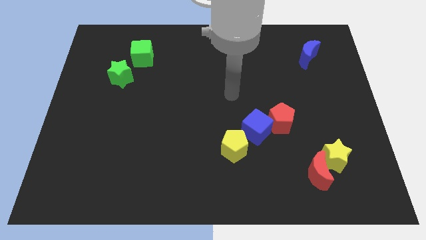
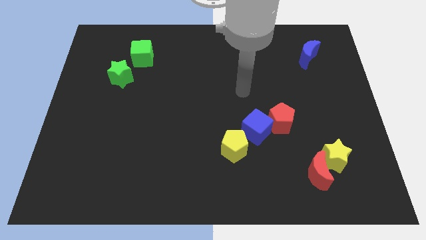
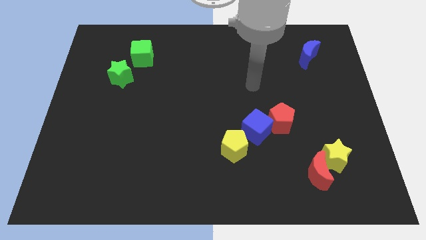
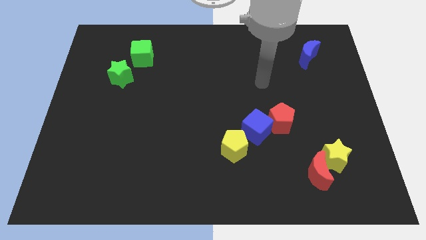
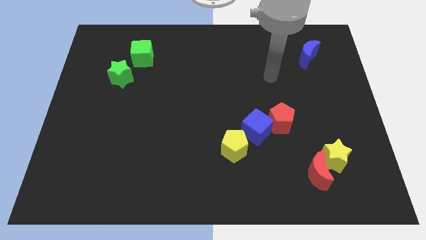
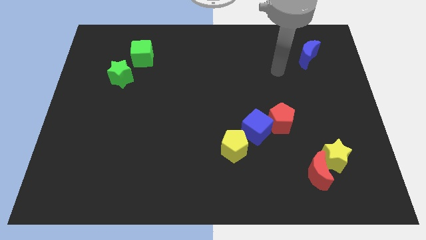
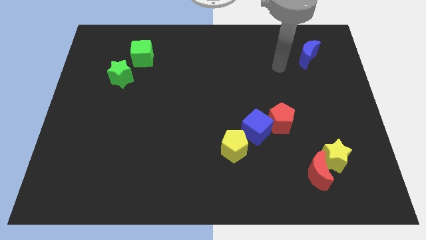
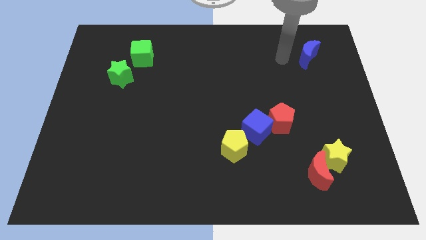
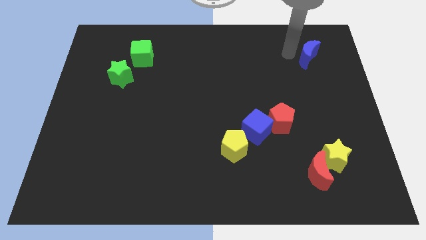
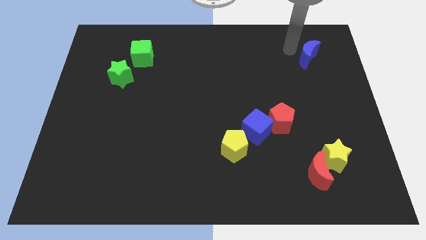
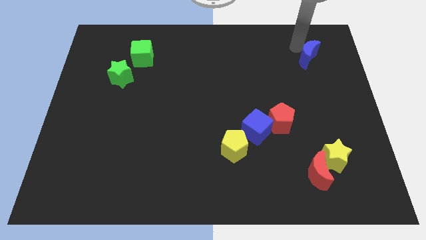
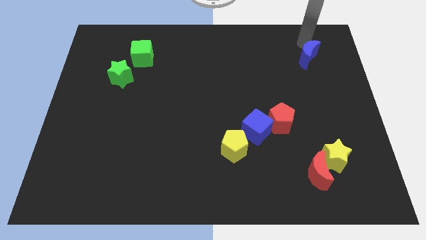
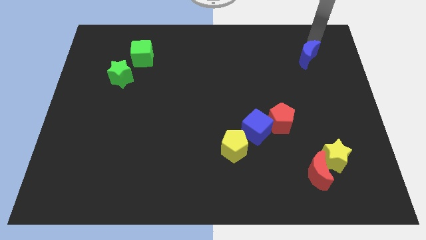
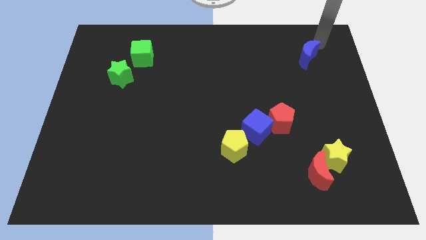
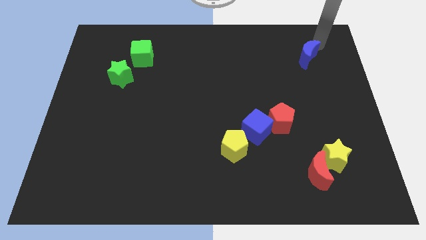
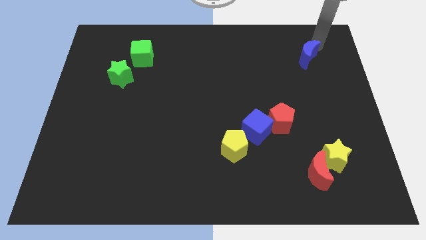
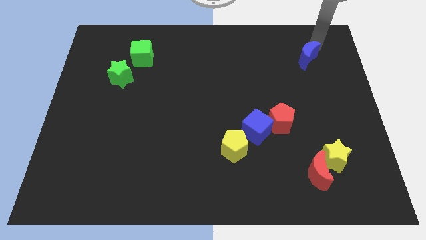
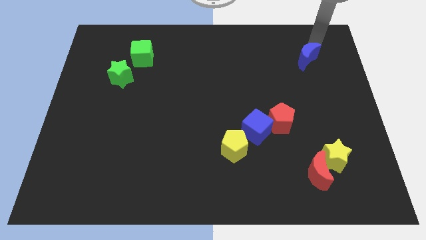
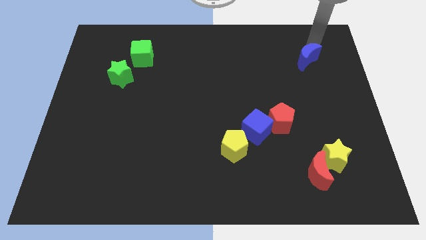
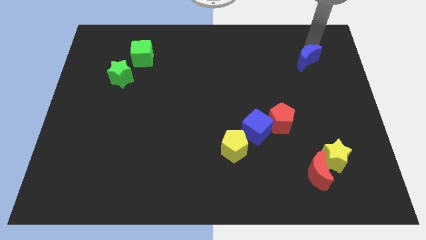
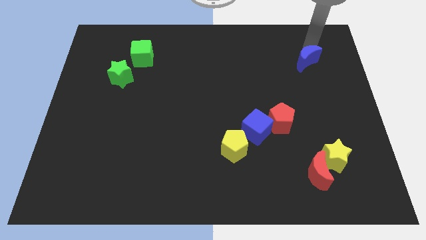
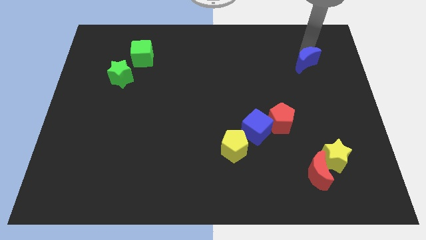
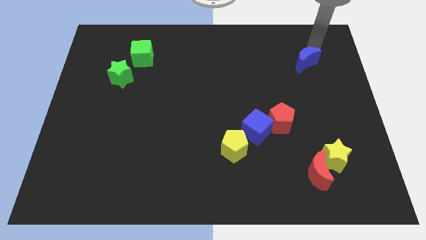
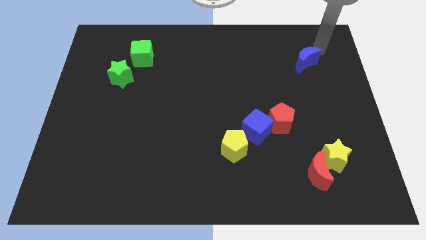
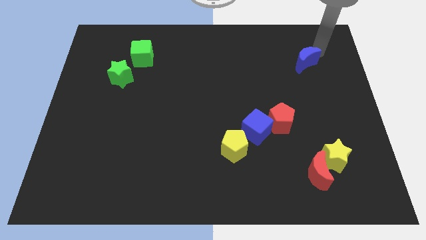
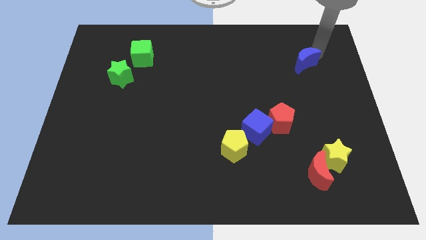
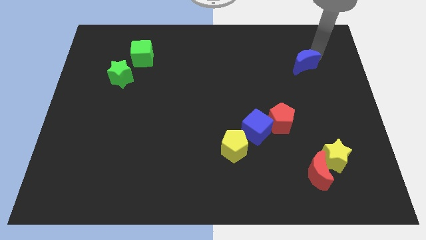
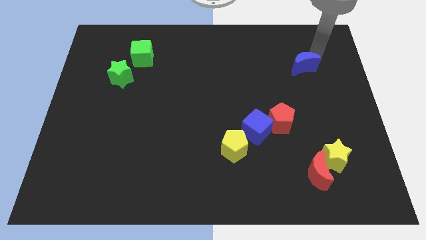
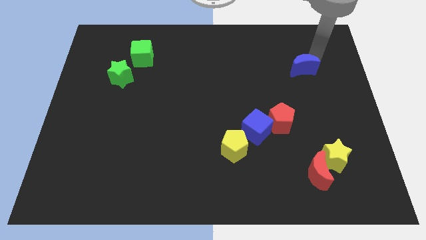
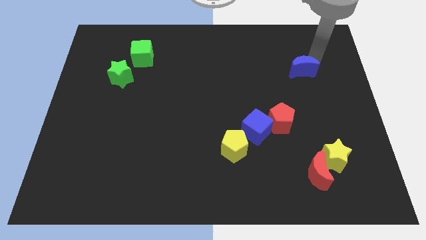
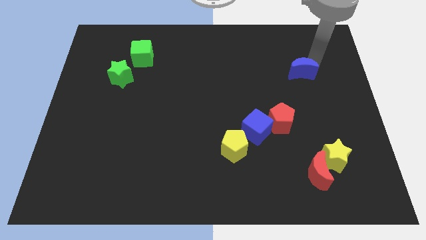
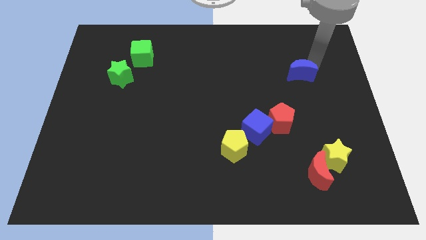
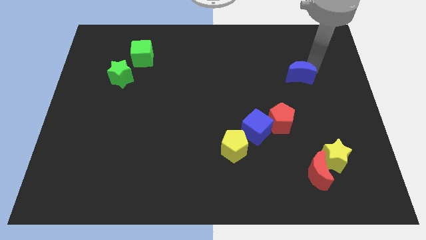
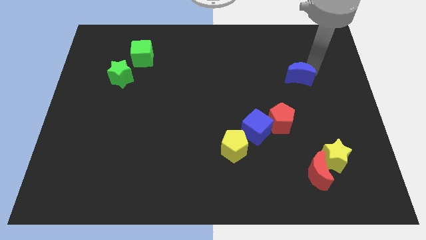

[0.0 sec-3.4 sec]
push the blue moon down and left somewhat

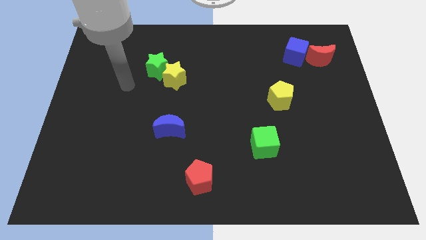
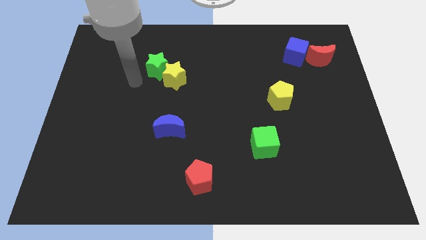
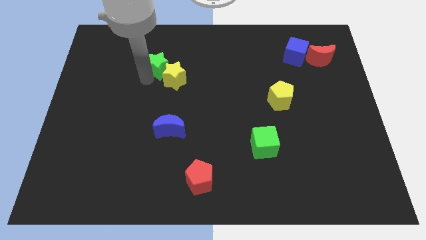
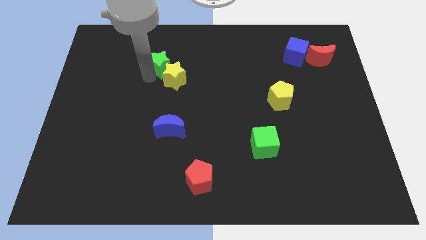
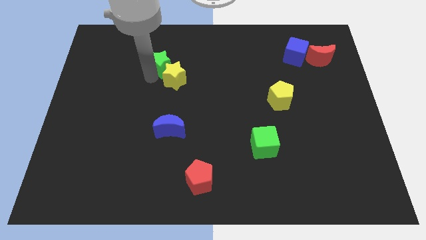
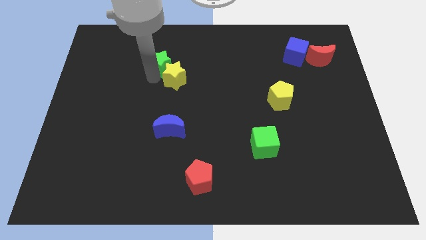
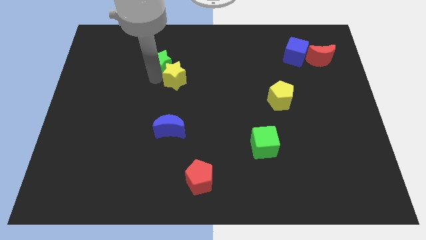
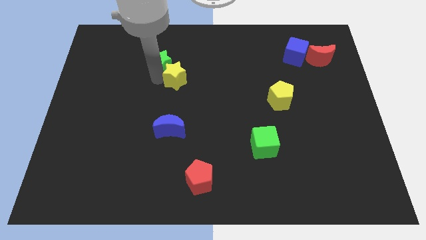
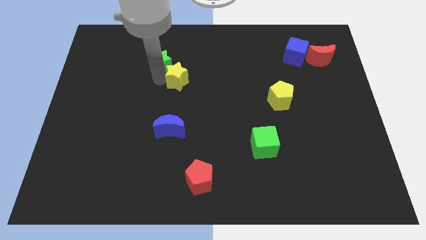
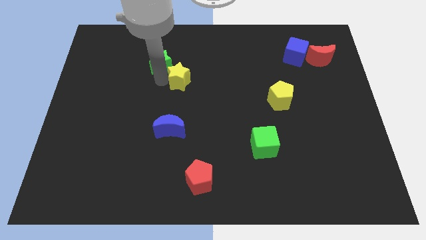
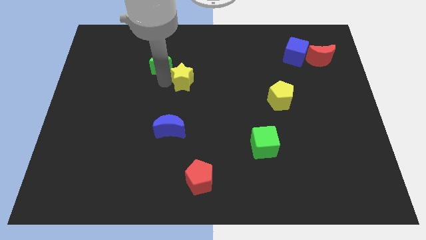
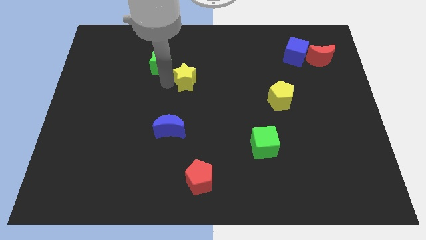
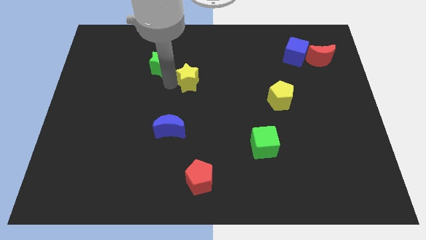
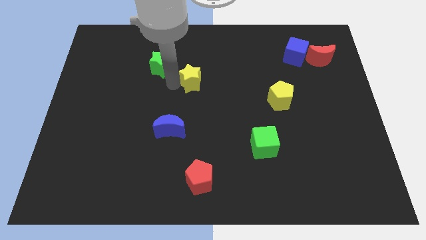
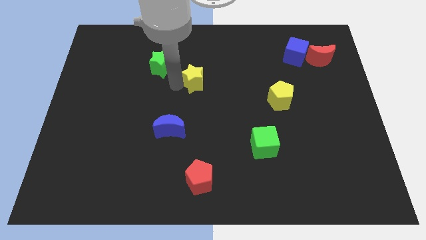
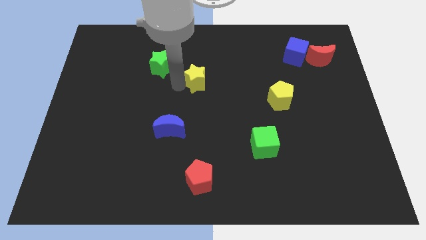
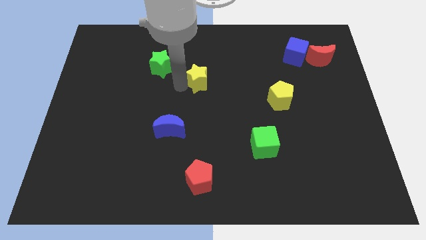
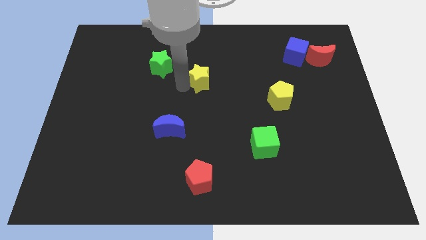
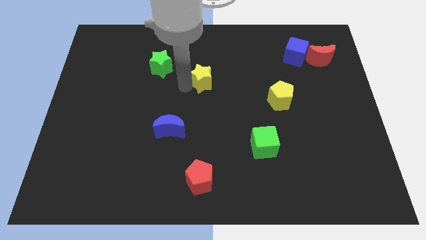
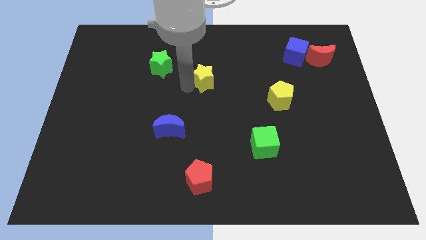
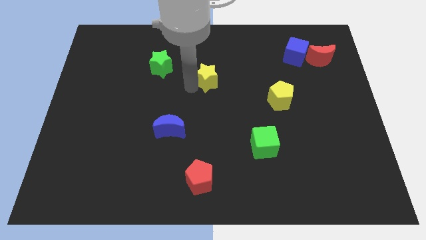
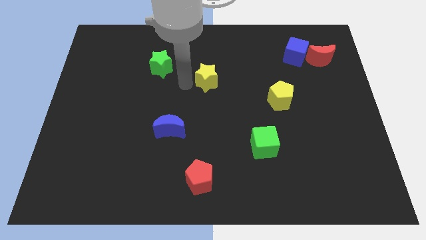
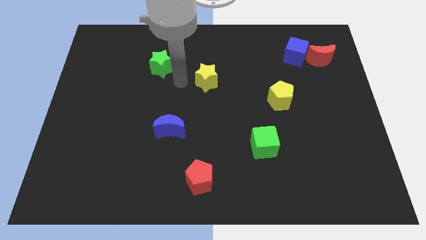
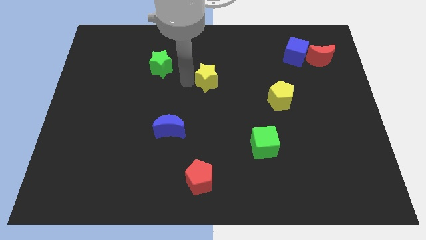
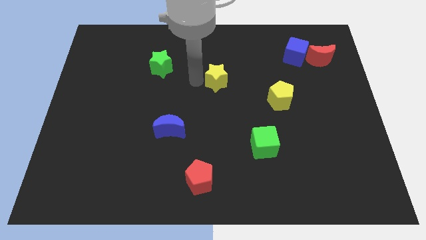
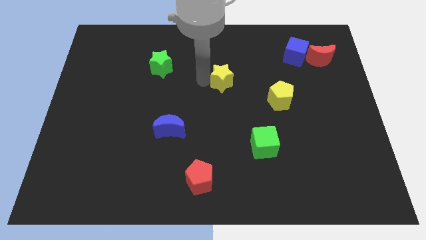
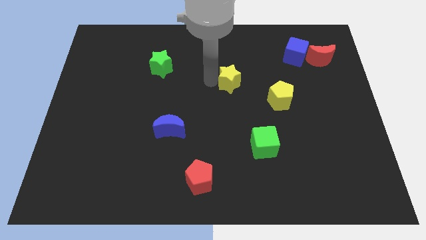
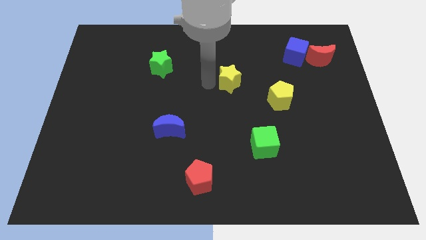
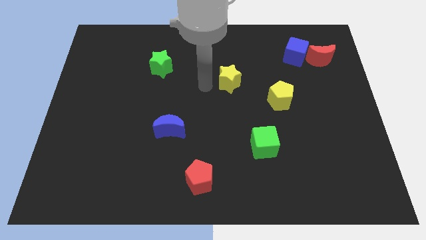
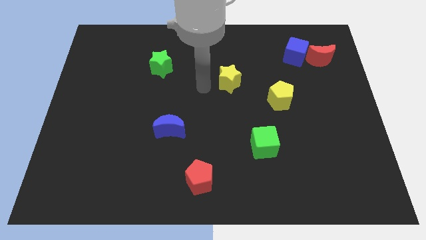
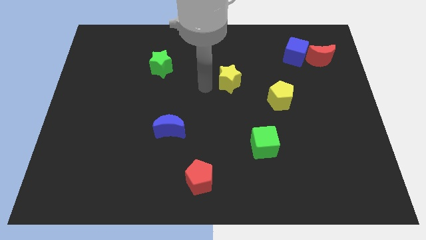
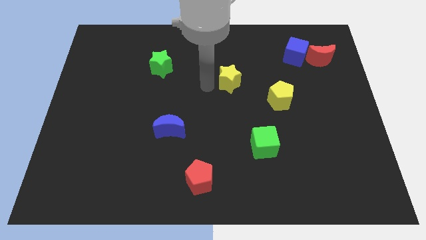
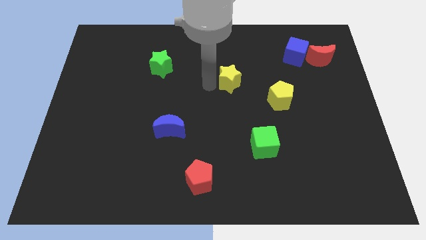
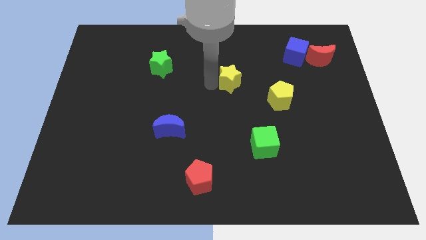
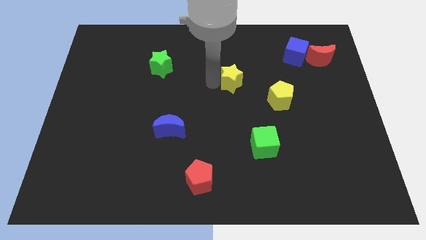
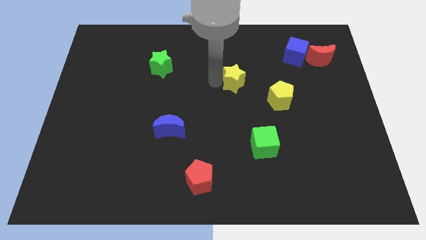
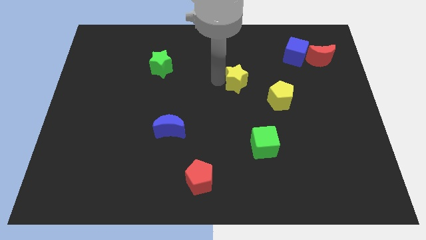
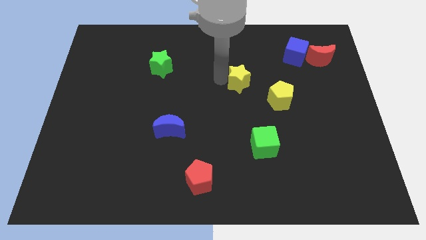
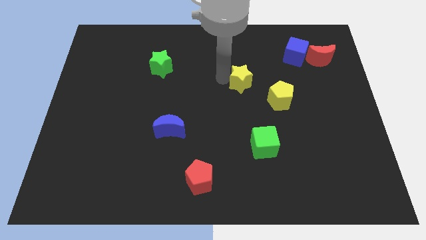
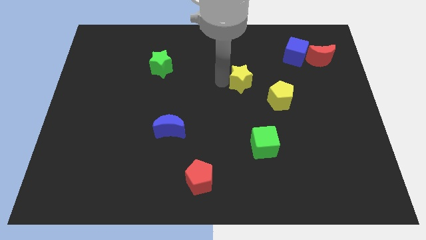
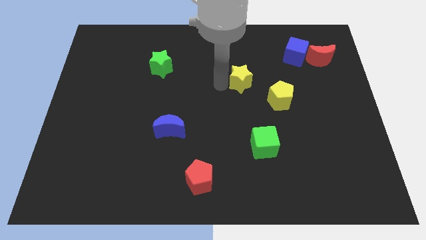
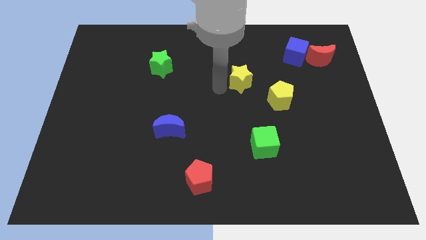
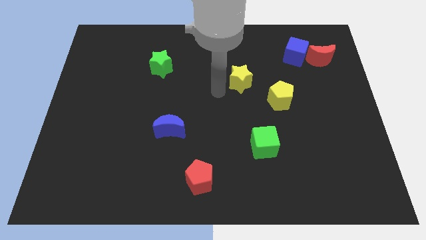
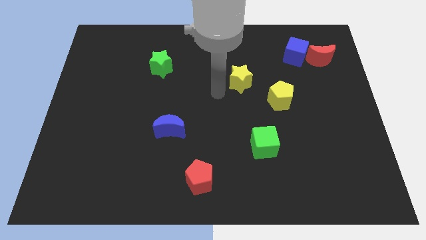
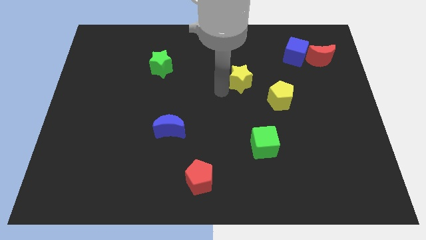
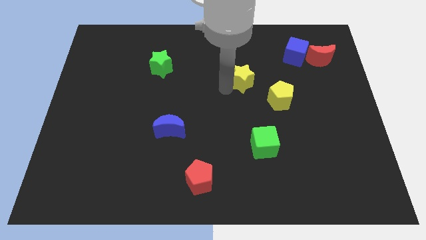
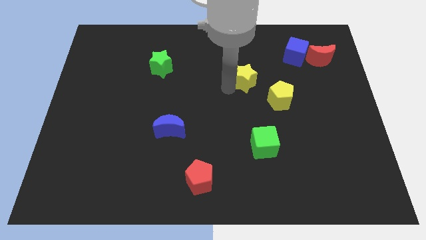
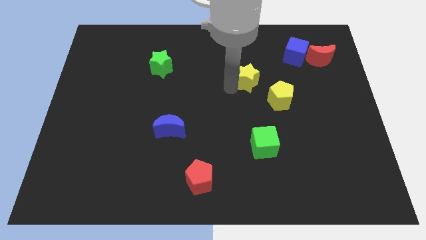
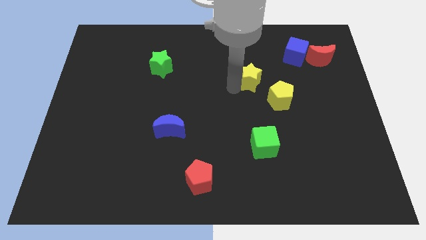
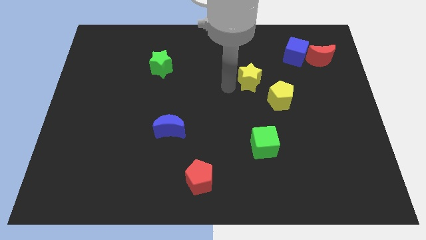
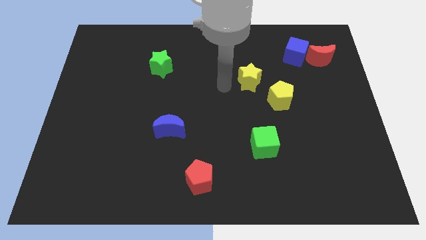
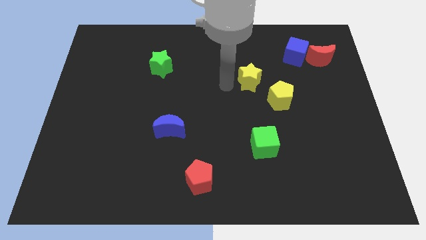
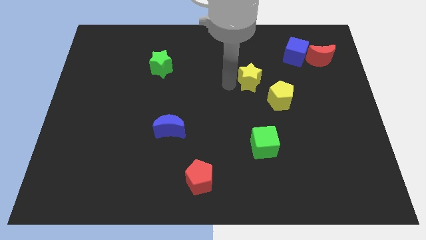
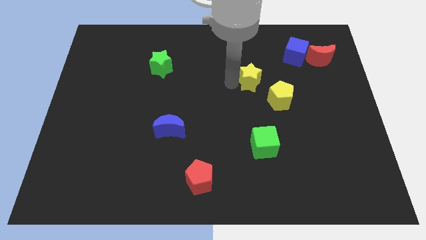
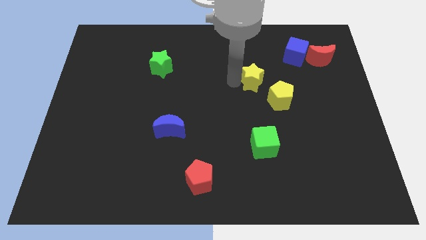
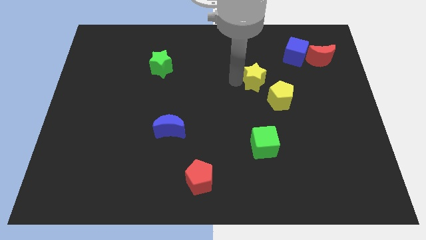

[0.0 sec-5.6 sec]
push the yellow star to the right
